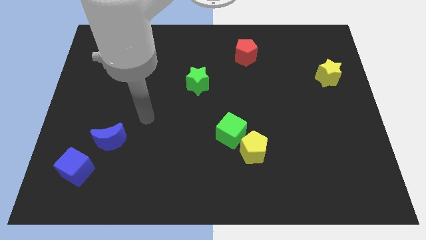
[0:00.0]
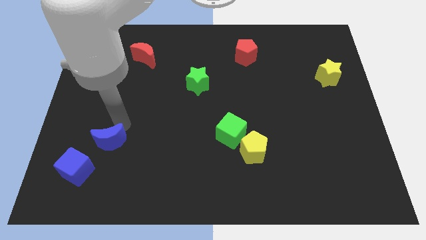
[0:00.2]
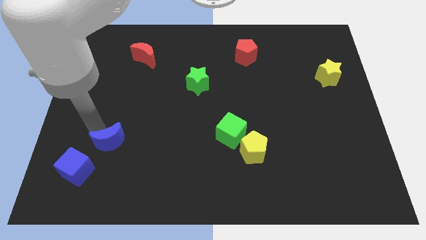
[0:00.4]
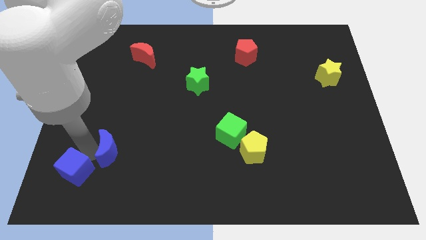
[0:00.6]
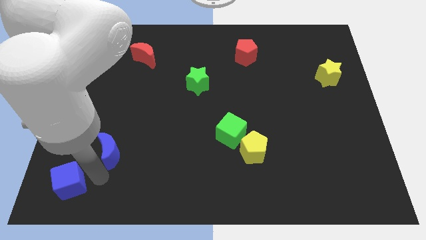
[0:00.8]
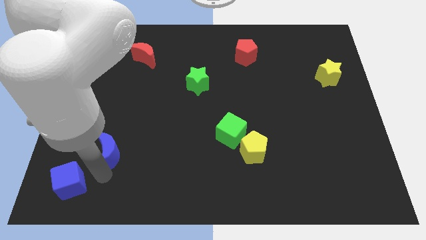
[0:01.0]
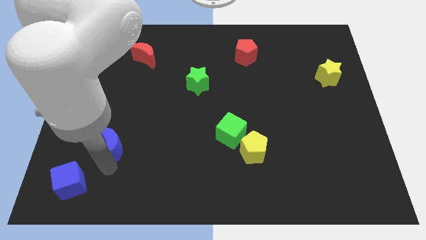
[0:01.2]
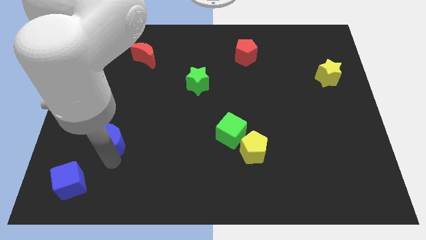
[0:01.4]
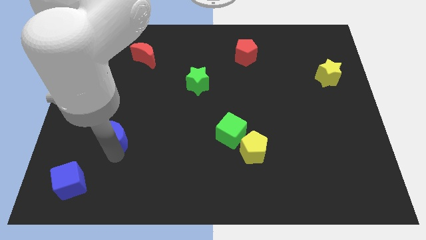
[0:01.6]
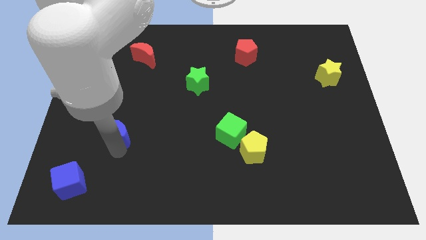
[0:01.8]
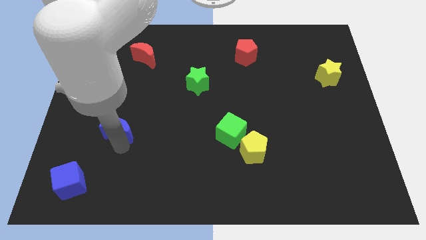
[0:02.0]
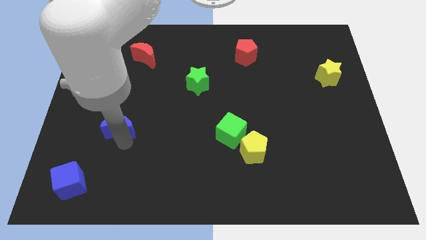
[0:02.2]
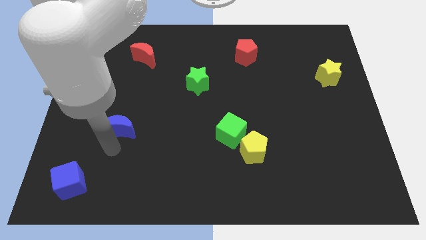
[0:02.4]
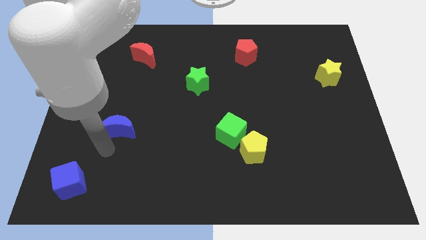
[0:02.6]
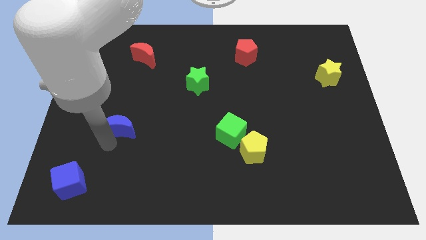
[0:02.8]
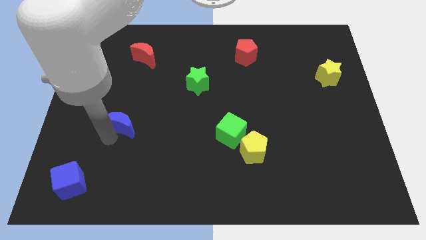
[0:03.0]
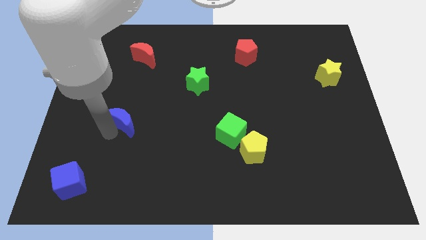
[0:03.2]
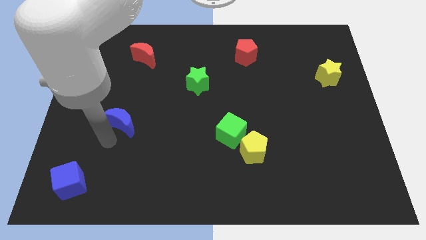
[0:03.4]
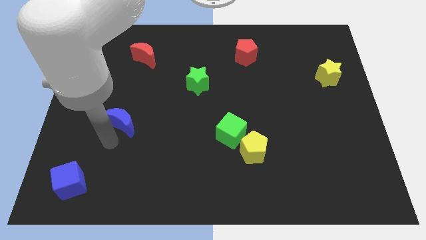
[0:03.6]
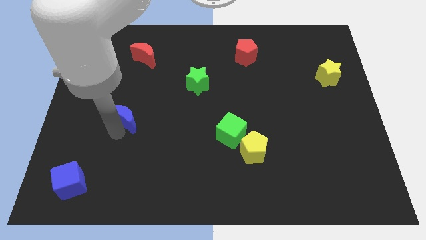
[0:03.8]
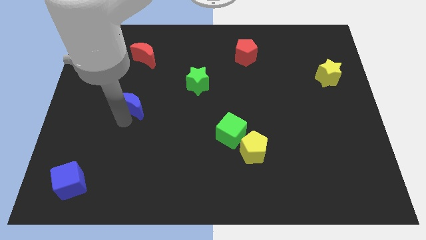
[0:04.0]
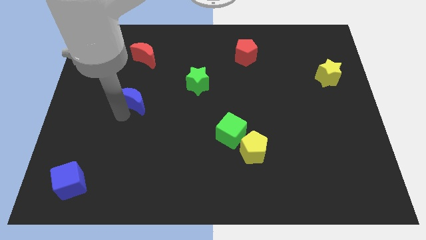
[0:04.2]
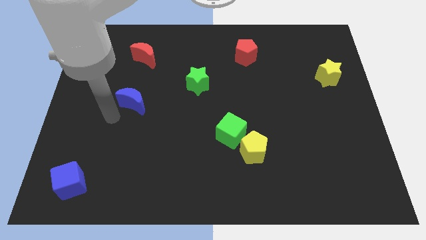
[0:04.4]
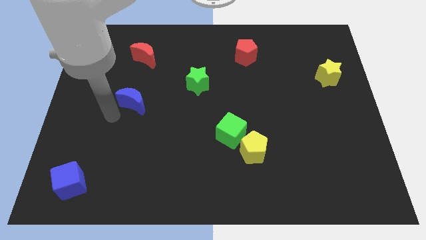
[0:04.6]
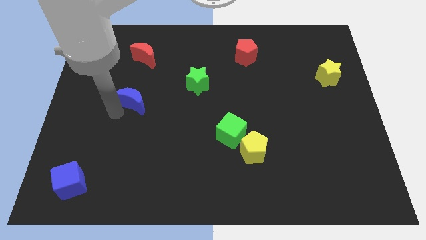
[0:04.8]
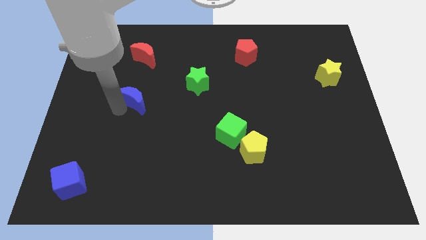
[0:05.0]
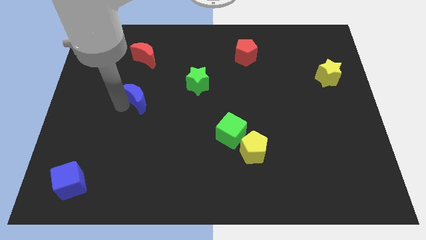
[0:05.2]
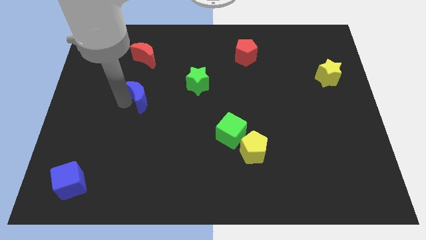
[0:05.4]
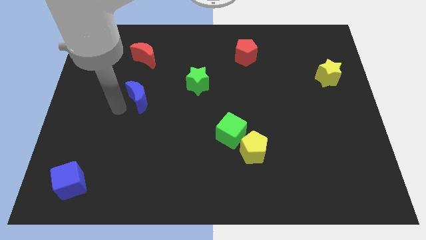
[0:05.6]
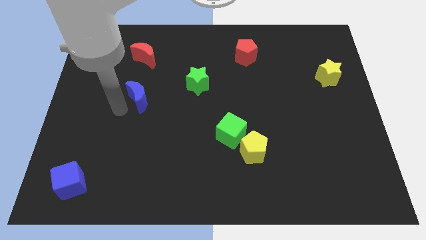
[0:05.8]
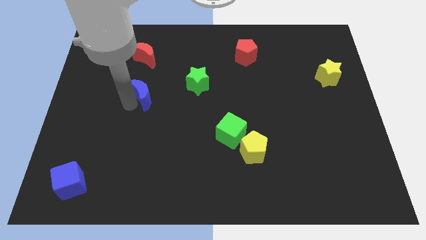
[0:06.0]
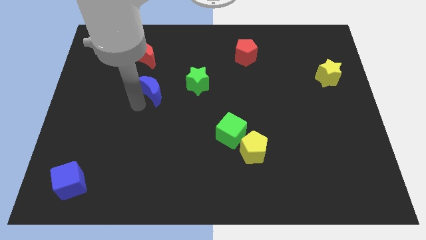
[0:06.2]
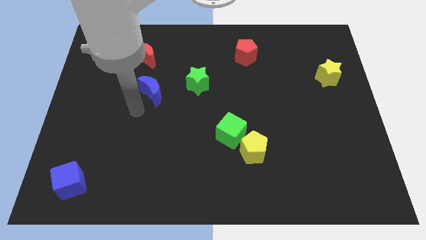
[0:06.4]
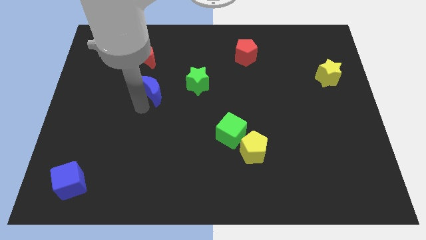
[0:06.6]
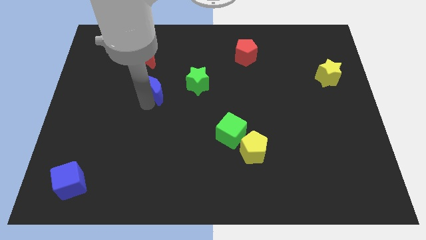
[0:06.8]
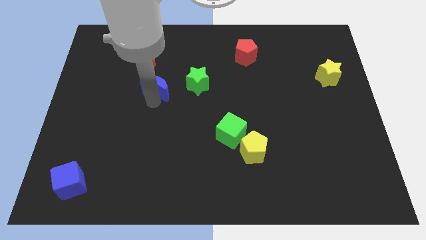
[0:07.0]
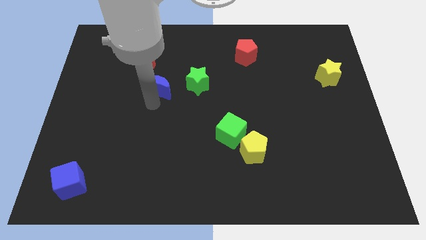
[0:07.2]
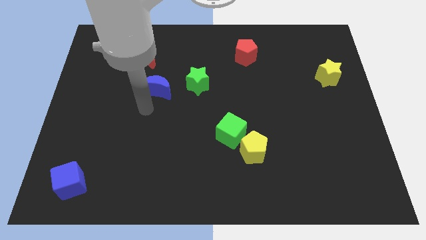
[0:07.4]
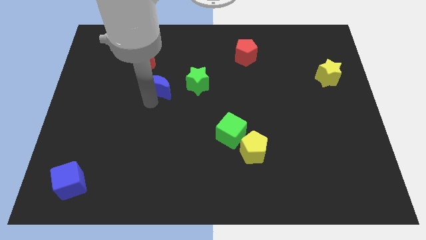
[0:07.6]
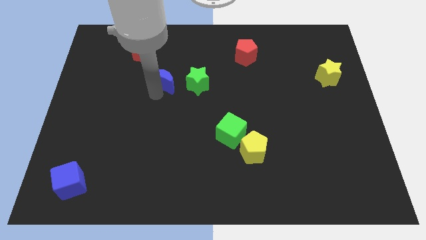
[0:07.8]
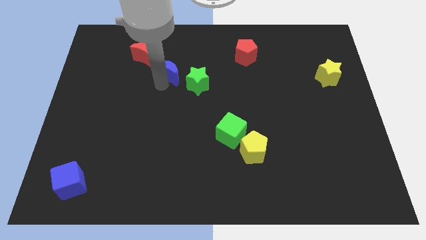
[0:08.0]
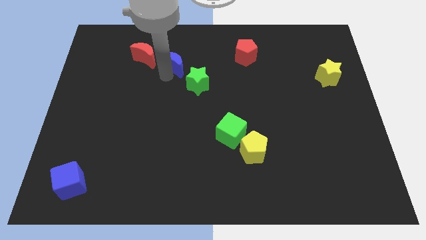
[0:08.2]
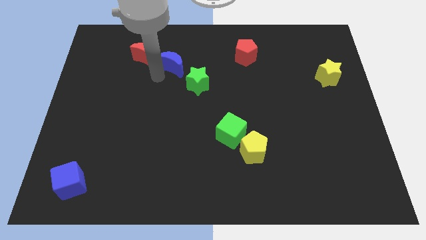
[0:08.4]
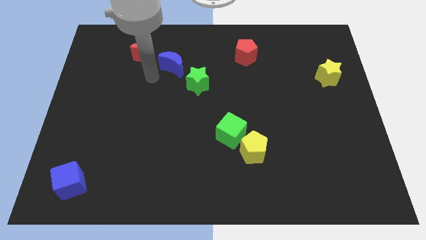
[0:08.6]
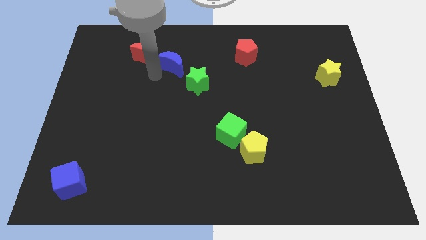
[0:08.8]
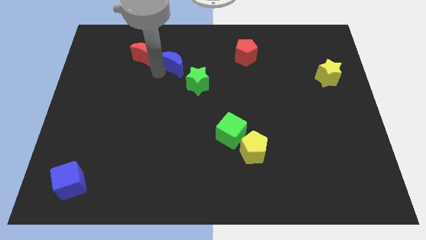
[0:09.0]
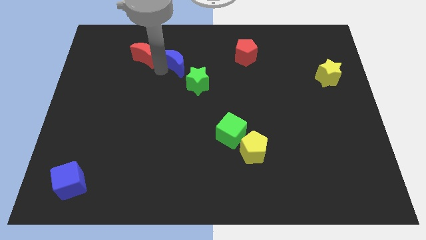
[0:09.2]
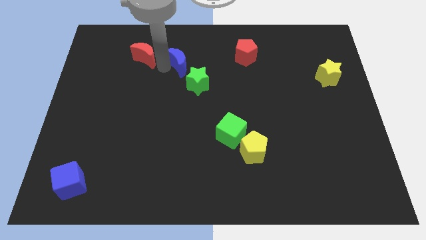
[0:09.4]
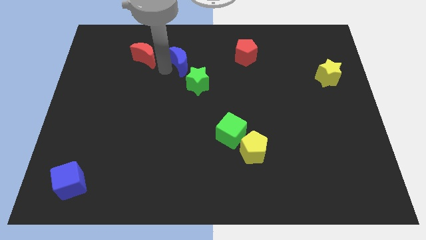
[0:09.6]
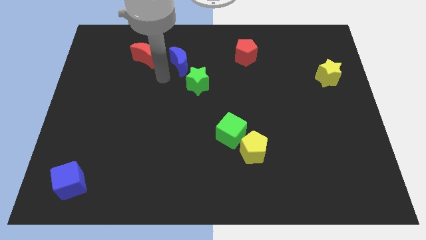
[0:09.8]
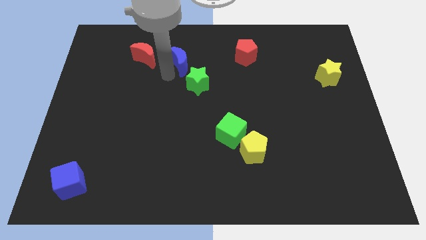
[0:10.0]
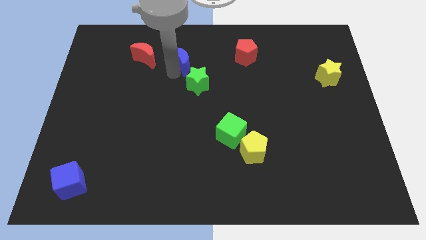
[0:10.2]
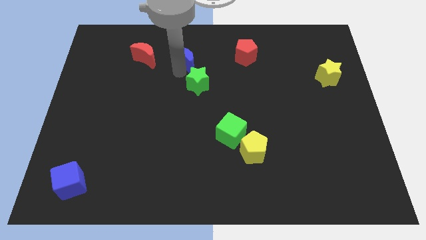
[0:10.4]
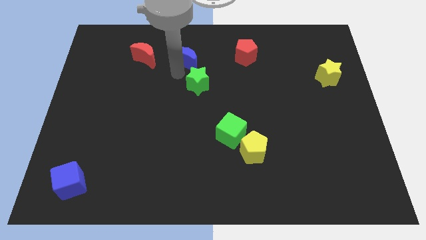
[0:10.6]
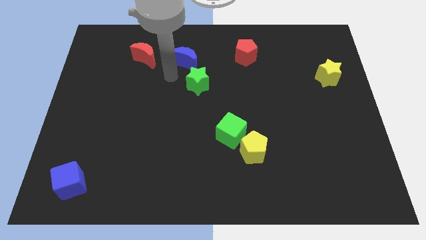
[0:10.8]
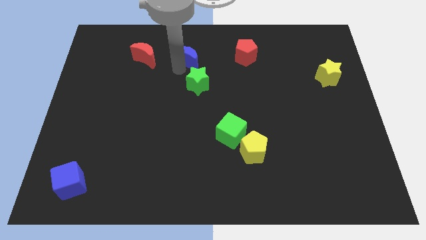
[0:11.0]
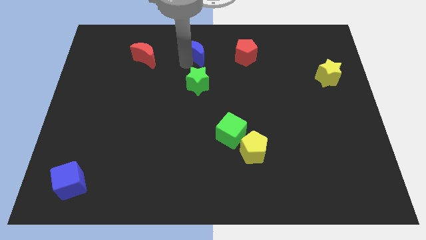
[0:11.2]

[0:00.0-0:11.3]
put the blue moon to the towards your base
